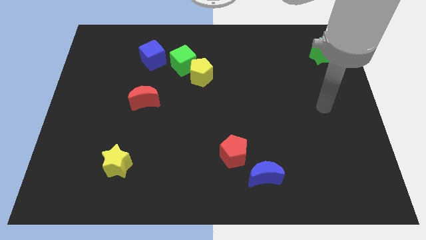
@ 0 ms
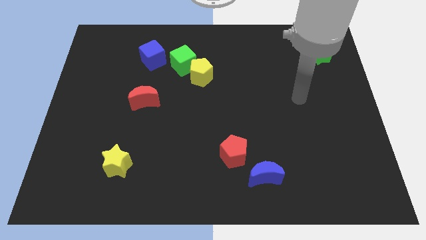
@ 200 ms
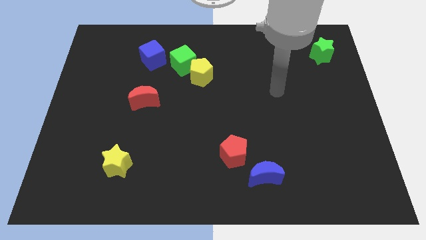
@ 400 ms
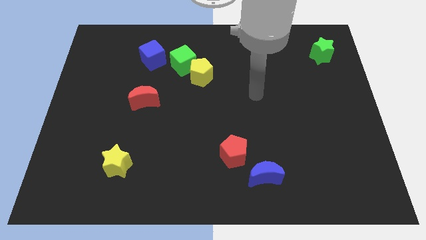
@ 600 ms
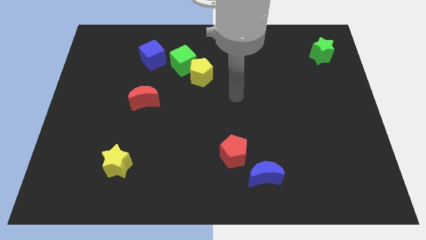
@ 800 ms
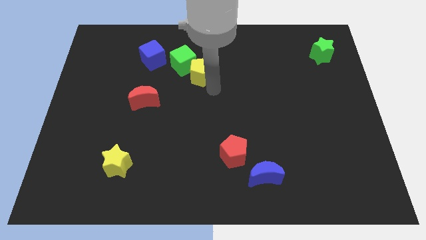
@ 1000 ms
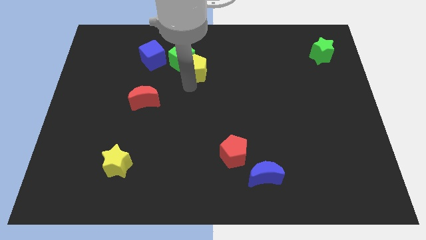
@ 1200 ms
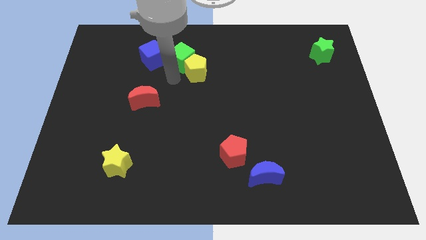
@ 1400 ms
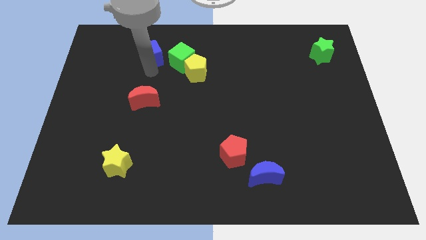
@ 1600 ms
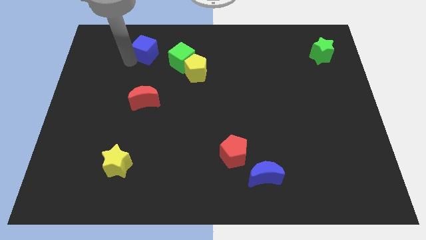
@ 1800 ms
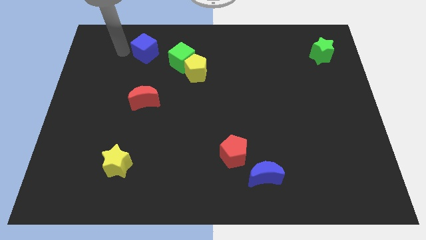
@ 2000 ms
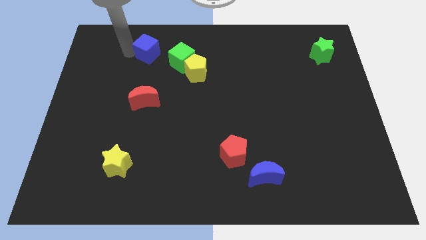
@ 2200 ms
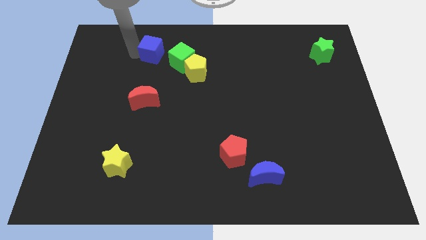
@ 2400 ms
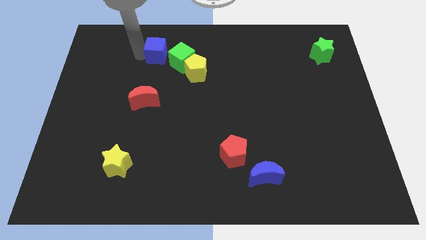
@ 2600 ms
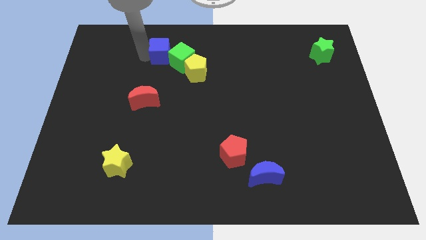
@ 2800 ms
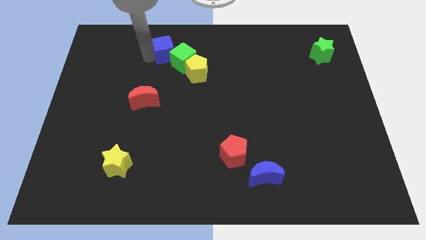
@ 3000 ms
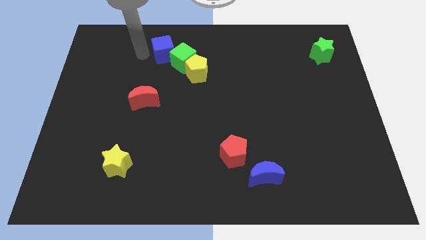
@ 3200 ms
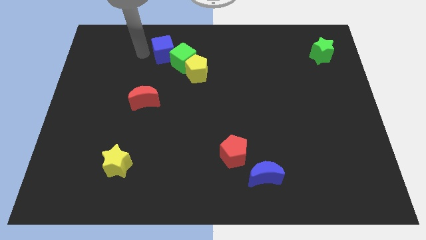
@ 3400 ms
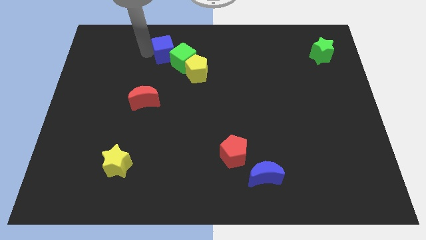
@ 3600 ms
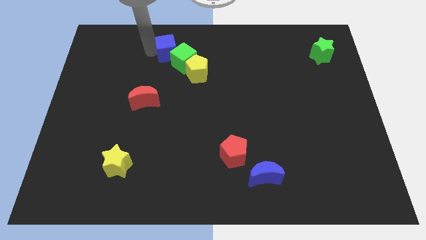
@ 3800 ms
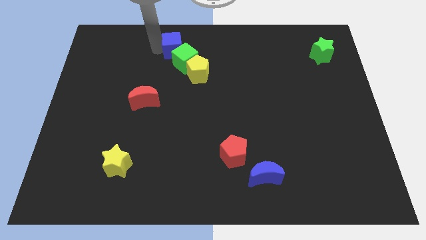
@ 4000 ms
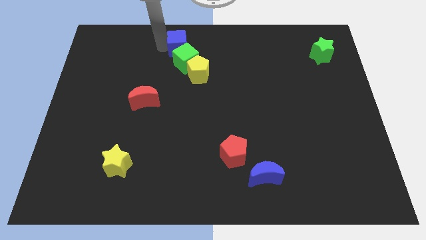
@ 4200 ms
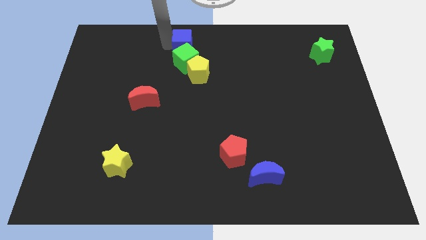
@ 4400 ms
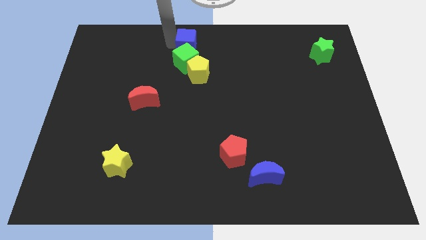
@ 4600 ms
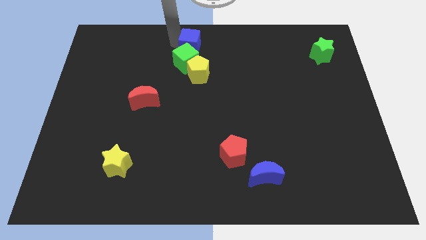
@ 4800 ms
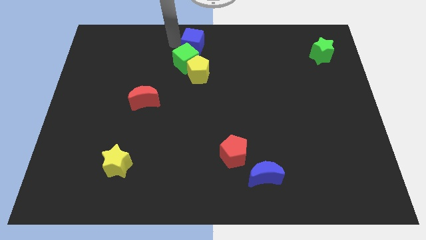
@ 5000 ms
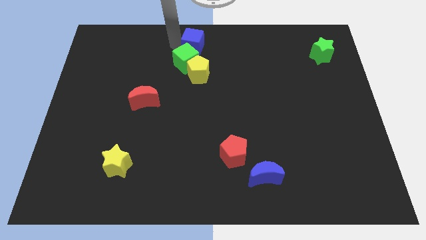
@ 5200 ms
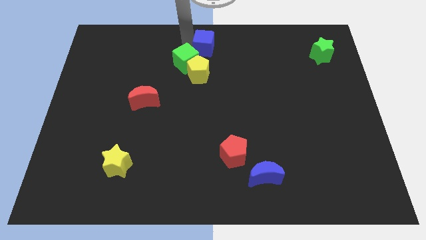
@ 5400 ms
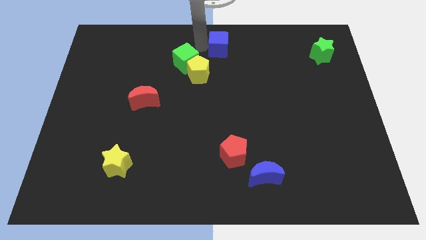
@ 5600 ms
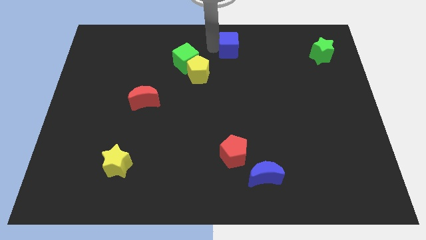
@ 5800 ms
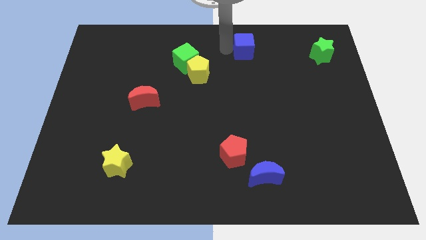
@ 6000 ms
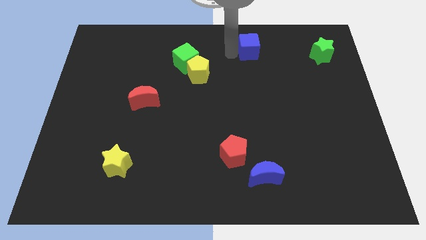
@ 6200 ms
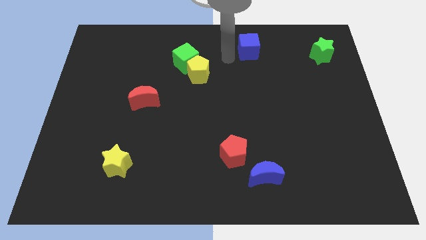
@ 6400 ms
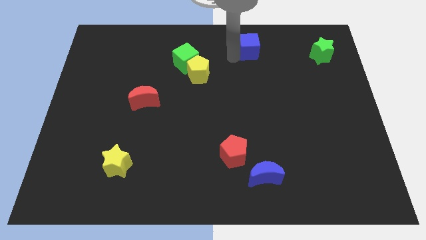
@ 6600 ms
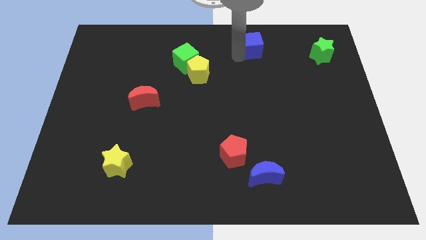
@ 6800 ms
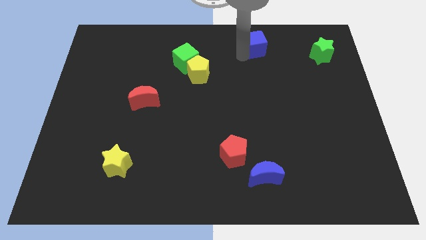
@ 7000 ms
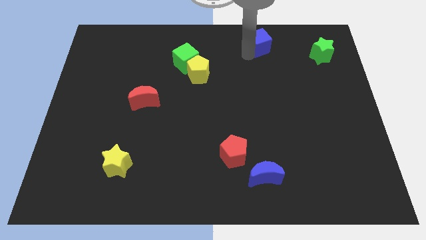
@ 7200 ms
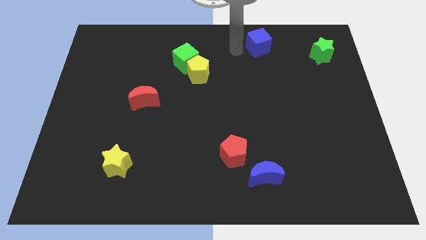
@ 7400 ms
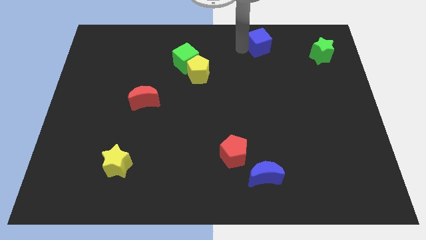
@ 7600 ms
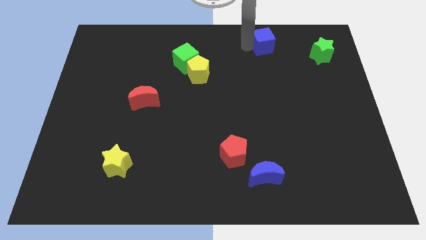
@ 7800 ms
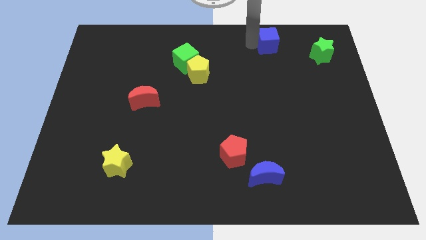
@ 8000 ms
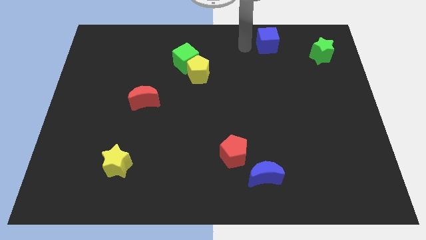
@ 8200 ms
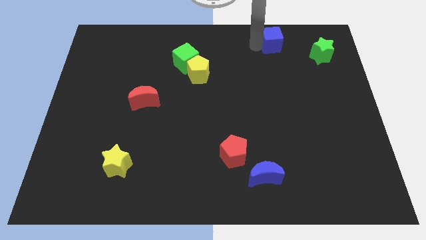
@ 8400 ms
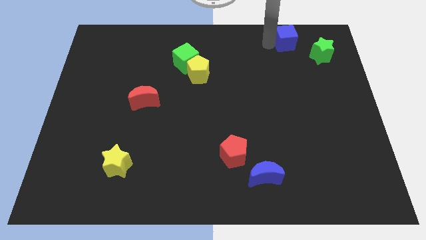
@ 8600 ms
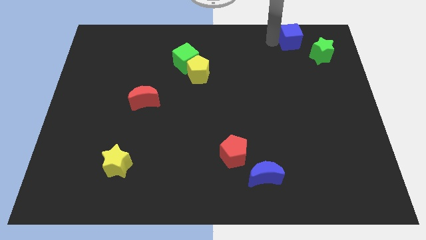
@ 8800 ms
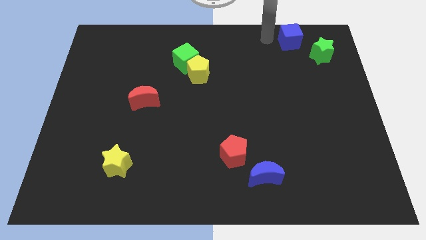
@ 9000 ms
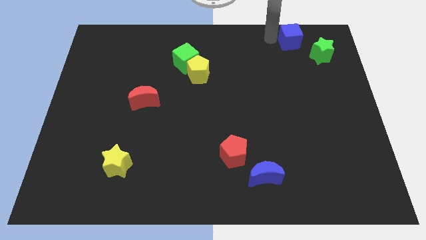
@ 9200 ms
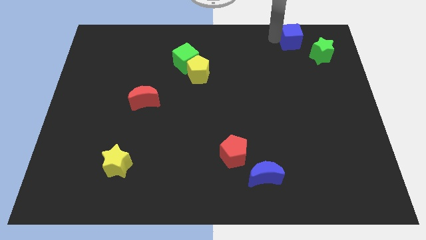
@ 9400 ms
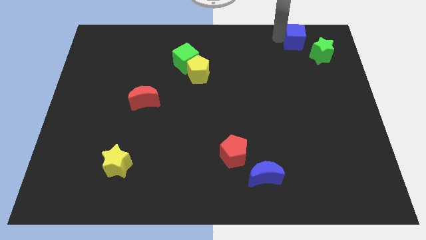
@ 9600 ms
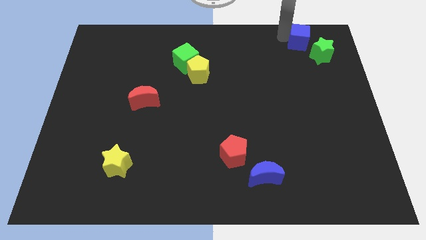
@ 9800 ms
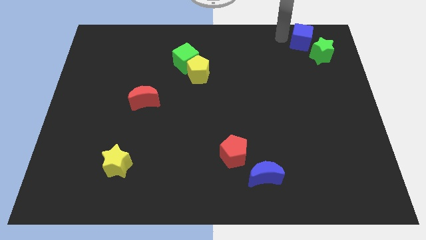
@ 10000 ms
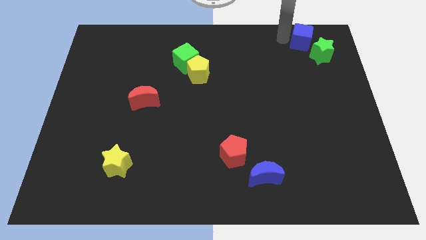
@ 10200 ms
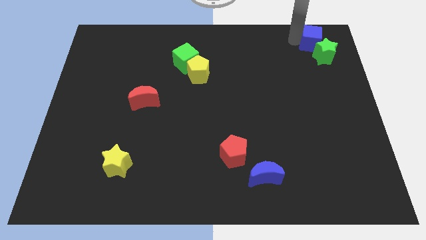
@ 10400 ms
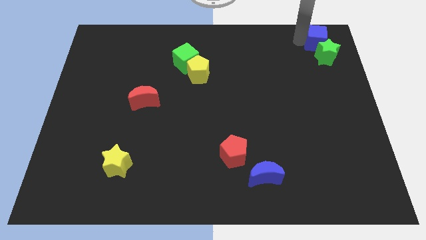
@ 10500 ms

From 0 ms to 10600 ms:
move the blue cube to the top right
